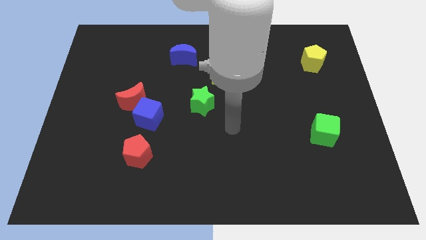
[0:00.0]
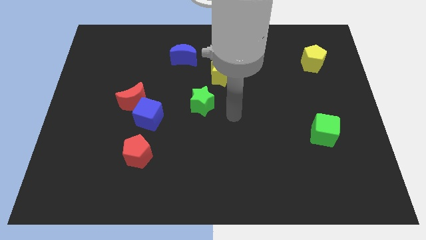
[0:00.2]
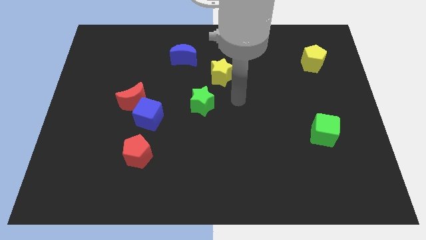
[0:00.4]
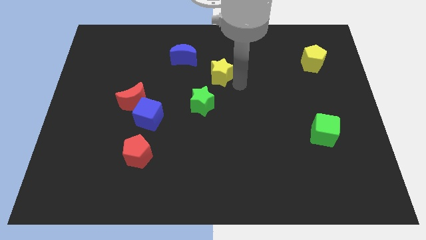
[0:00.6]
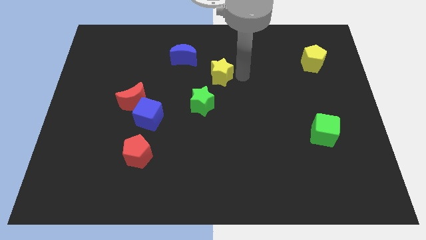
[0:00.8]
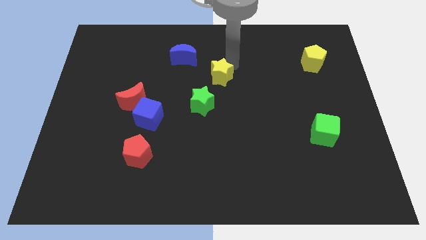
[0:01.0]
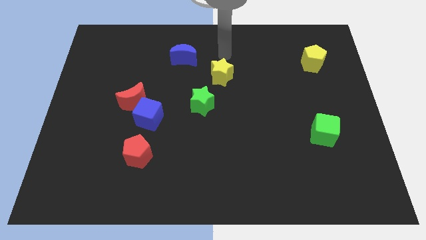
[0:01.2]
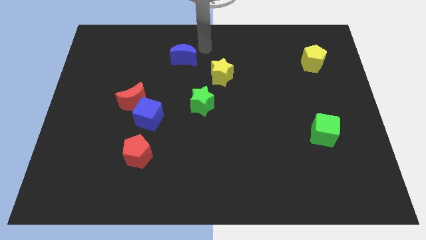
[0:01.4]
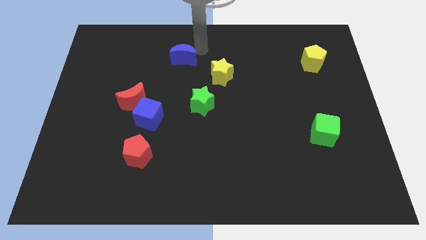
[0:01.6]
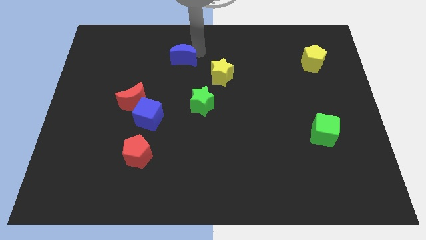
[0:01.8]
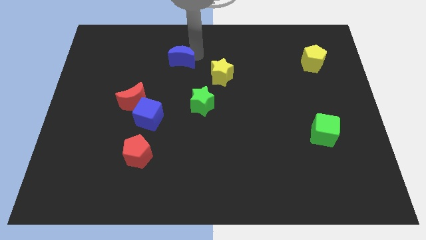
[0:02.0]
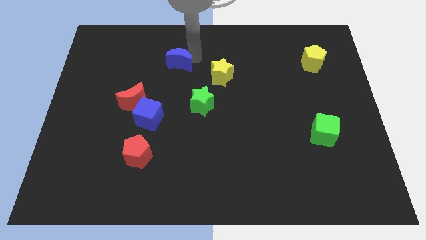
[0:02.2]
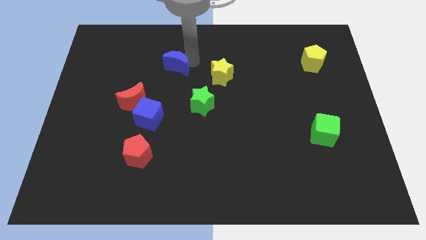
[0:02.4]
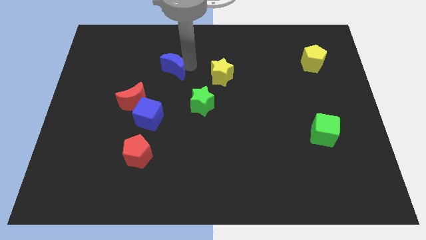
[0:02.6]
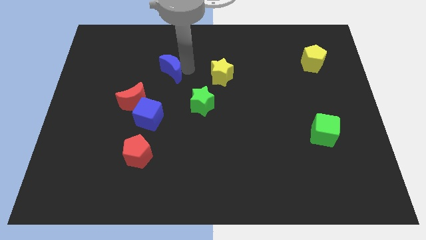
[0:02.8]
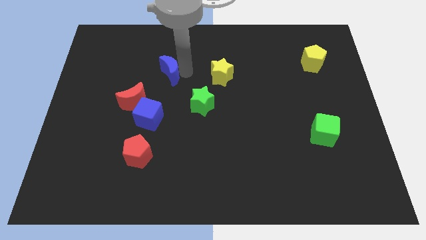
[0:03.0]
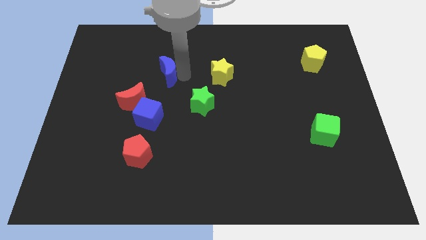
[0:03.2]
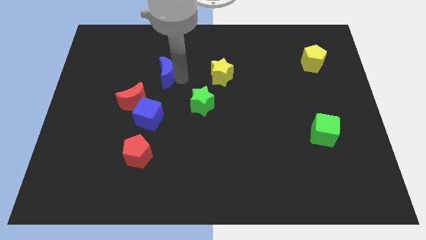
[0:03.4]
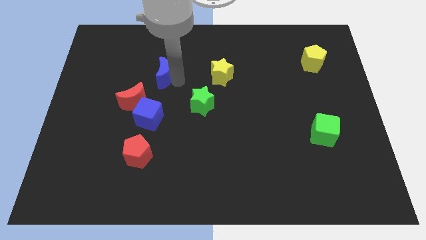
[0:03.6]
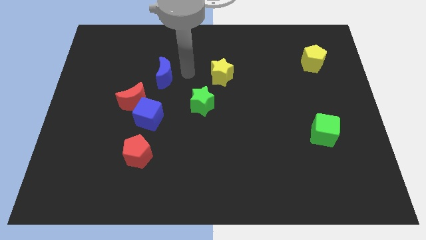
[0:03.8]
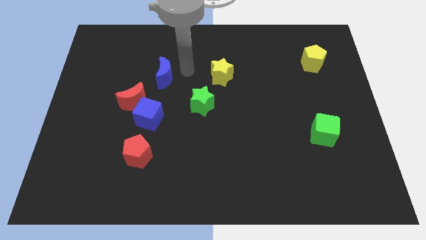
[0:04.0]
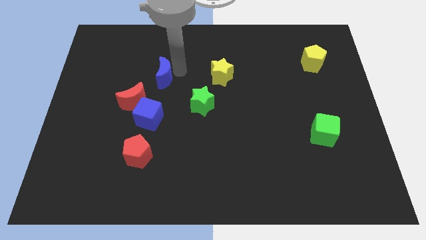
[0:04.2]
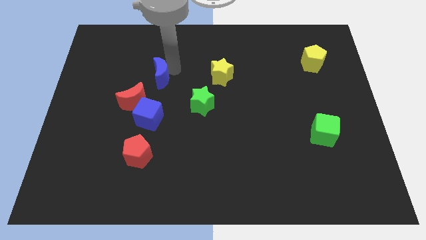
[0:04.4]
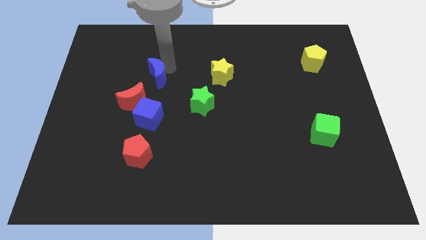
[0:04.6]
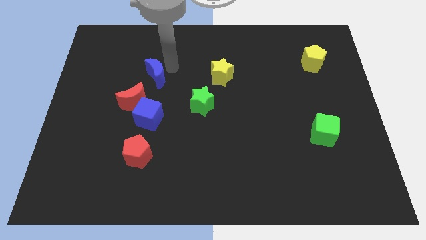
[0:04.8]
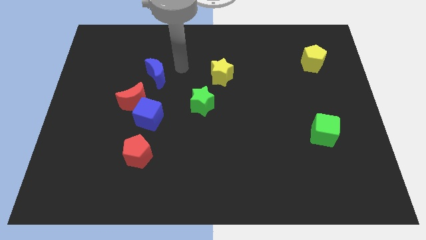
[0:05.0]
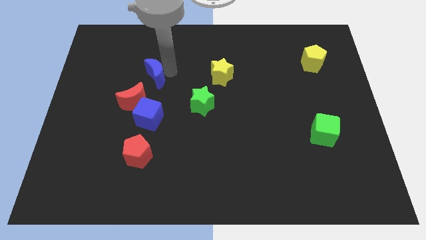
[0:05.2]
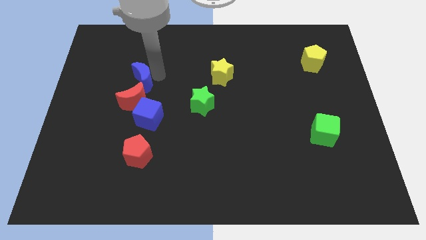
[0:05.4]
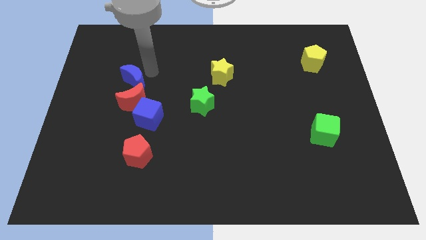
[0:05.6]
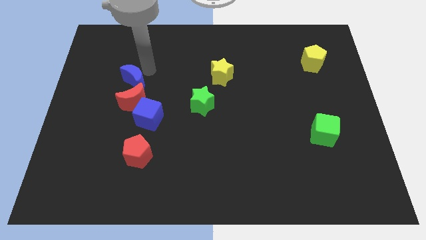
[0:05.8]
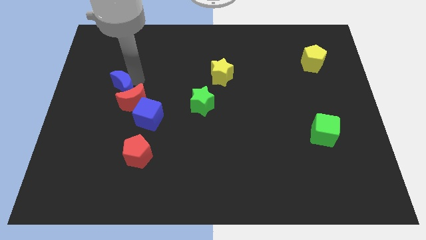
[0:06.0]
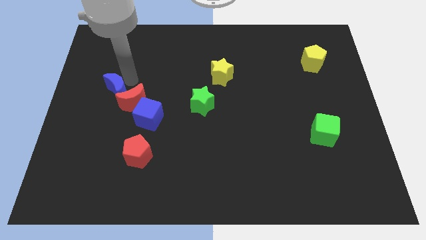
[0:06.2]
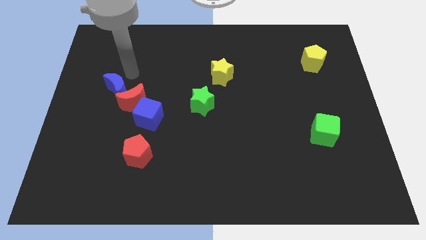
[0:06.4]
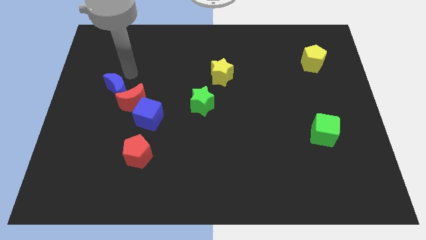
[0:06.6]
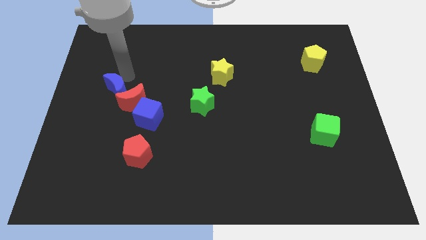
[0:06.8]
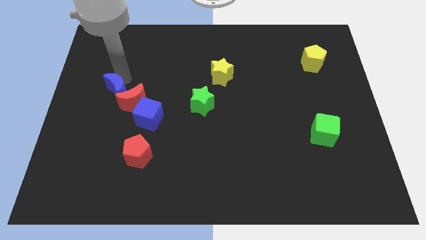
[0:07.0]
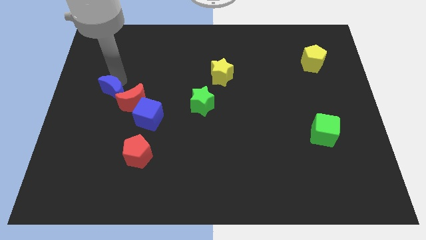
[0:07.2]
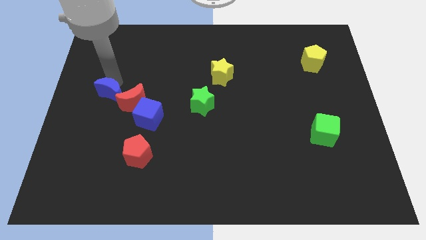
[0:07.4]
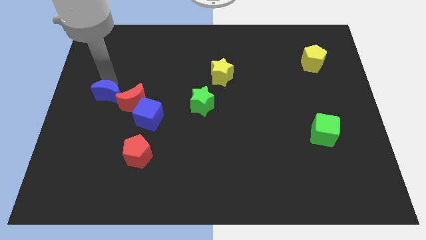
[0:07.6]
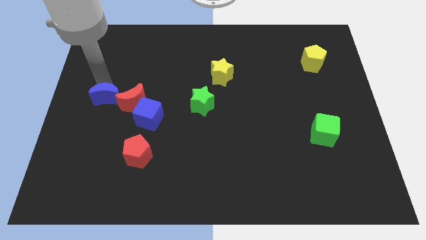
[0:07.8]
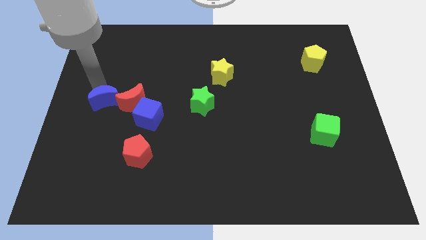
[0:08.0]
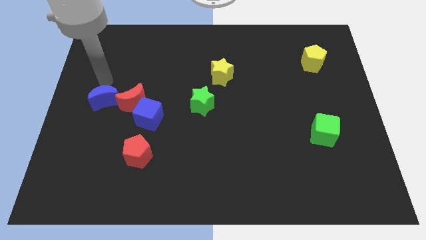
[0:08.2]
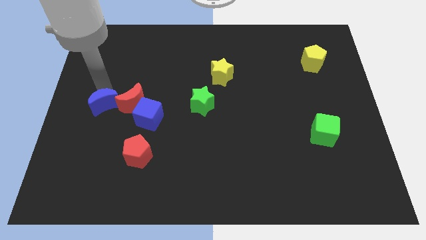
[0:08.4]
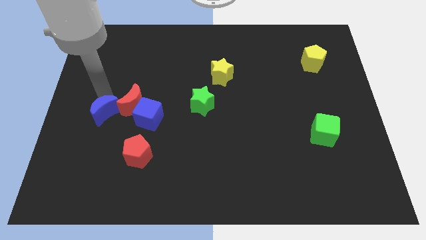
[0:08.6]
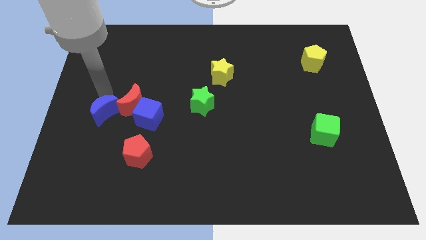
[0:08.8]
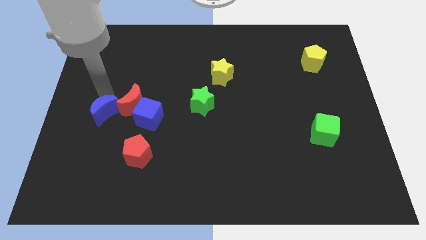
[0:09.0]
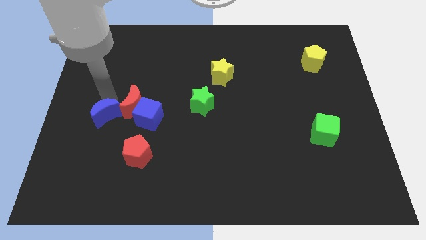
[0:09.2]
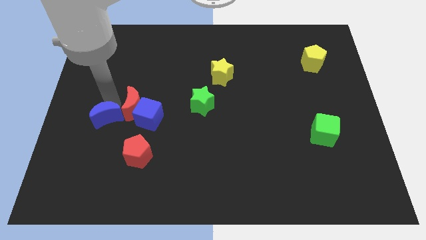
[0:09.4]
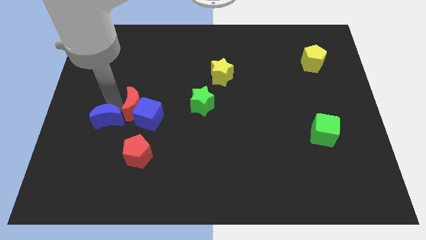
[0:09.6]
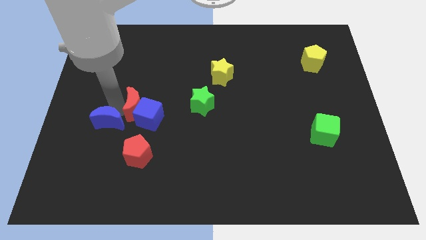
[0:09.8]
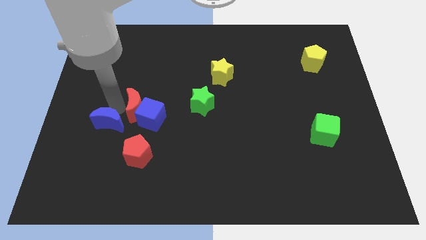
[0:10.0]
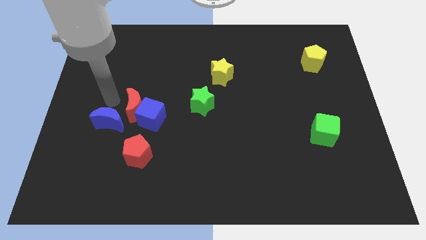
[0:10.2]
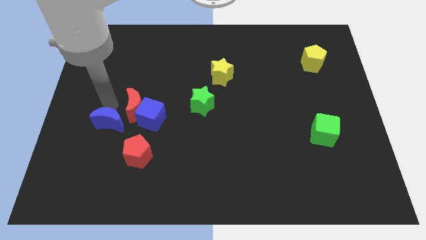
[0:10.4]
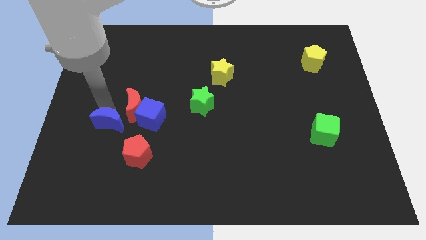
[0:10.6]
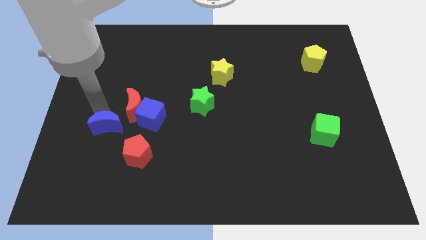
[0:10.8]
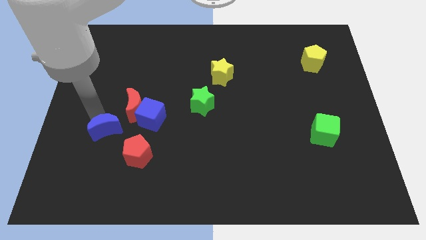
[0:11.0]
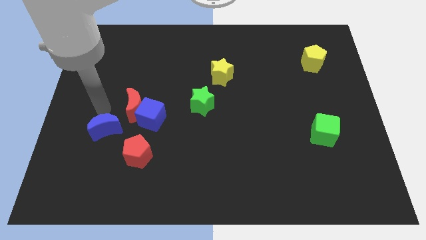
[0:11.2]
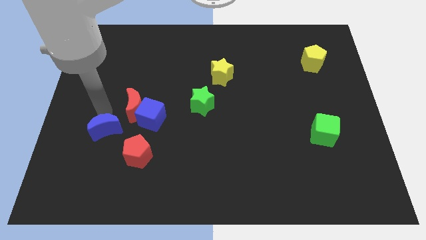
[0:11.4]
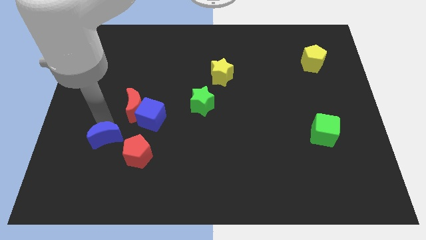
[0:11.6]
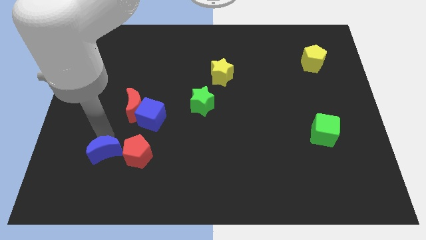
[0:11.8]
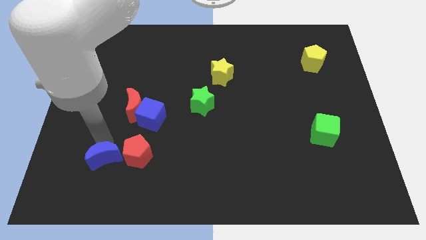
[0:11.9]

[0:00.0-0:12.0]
put the blue moon diagonally down and to the left of the red pentagon
